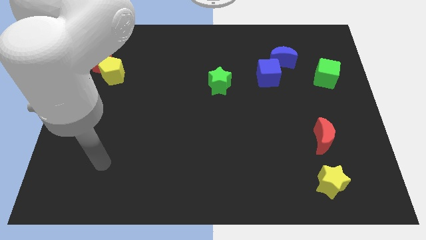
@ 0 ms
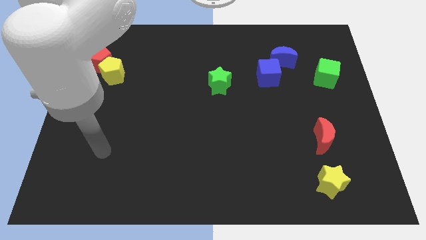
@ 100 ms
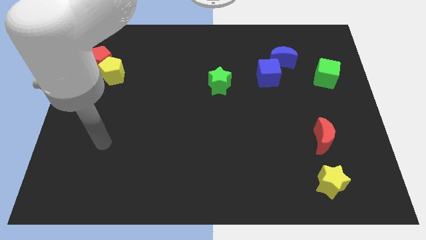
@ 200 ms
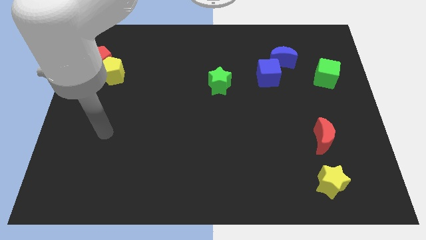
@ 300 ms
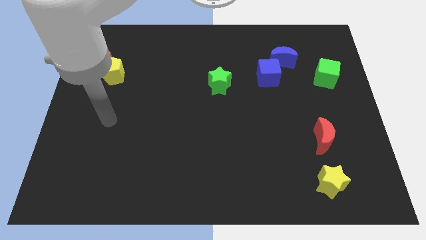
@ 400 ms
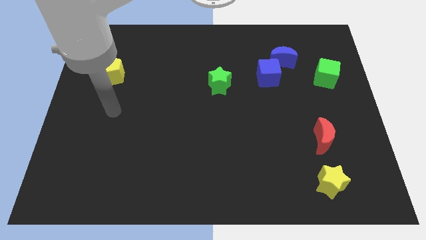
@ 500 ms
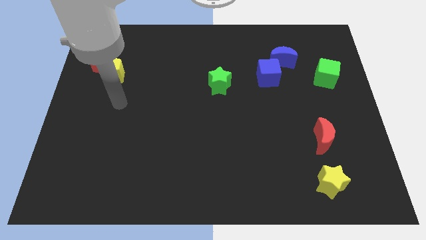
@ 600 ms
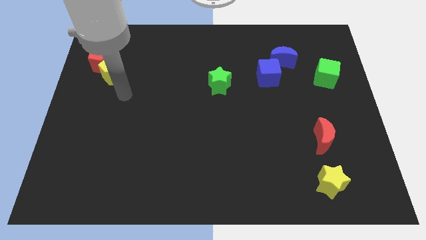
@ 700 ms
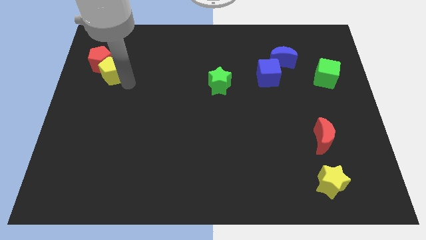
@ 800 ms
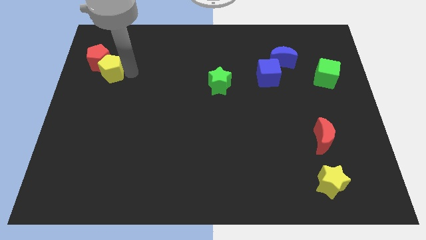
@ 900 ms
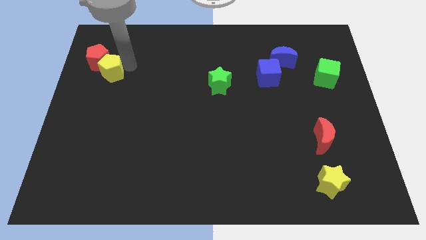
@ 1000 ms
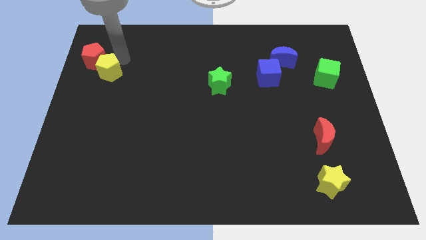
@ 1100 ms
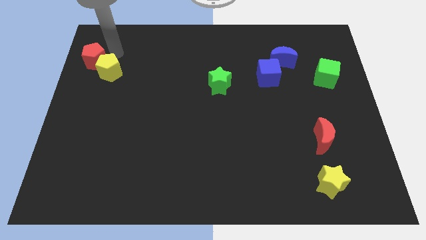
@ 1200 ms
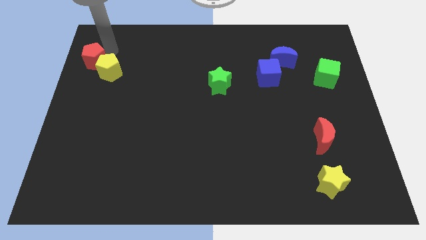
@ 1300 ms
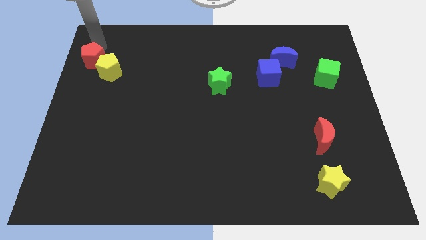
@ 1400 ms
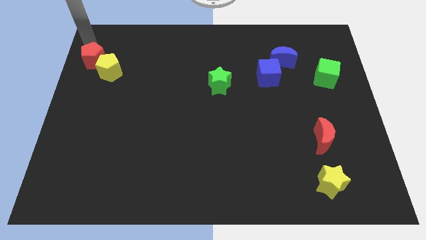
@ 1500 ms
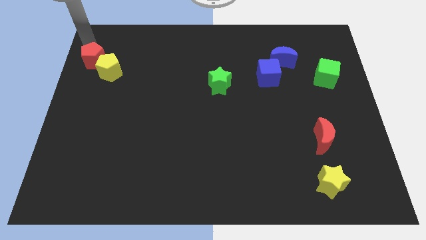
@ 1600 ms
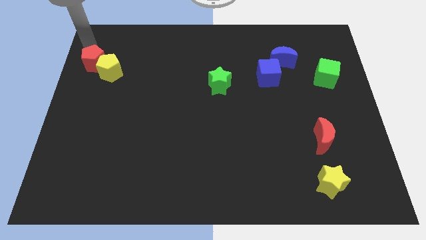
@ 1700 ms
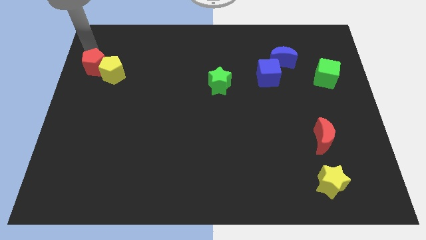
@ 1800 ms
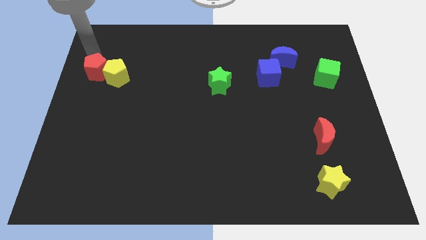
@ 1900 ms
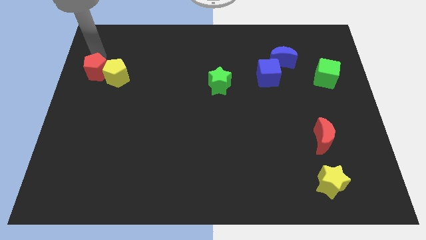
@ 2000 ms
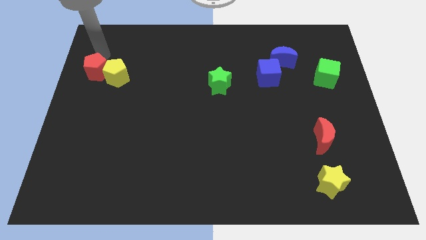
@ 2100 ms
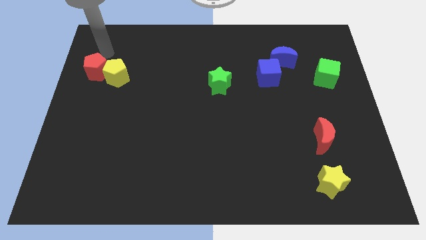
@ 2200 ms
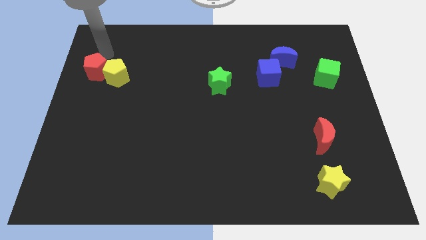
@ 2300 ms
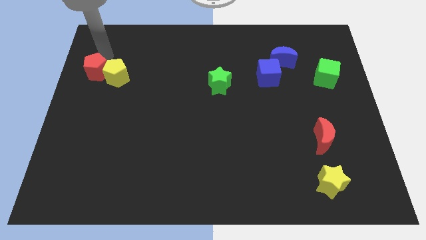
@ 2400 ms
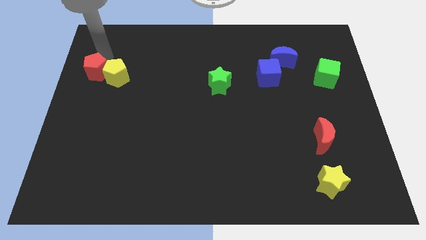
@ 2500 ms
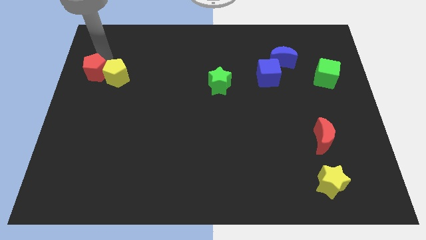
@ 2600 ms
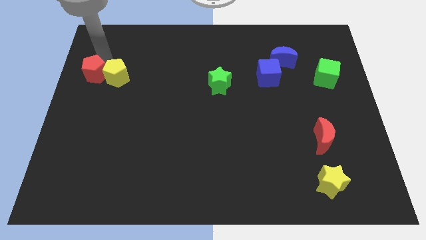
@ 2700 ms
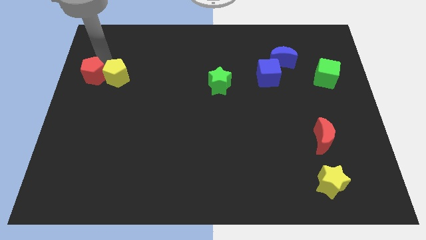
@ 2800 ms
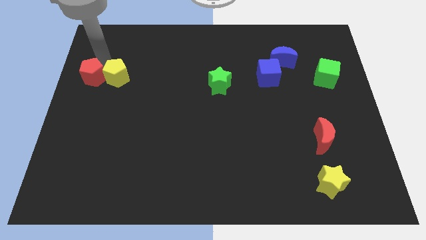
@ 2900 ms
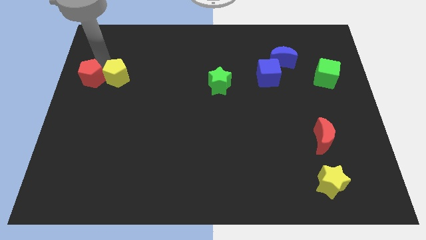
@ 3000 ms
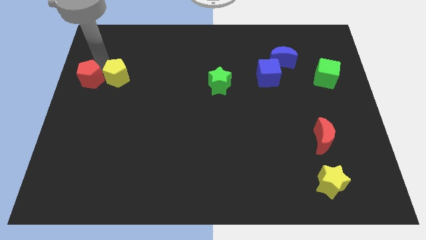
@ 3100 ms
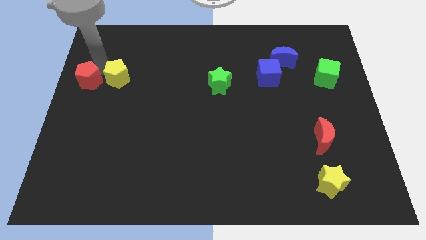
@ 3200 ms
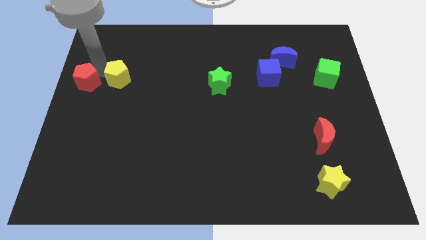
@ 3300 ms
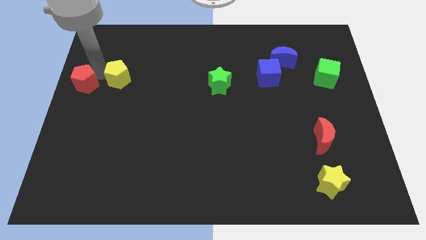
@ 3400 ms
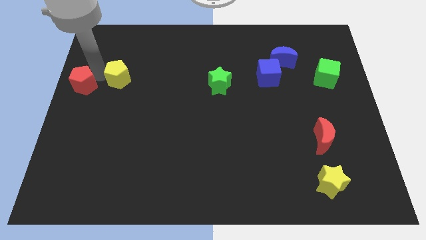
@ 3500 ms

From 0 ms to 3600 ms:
slightly move the red pentagon down

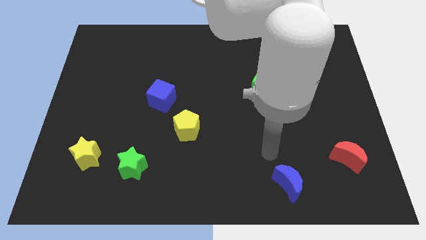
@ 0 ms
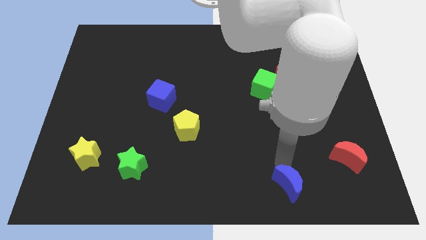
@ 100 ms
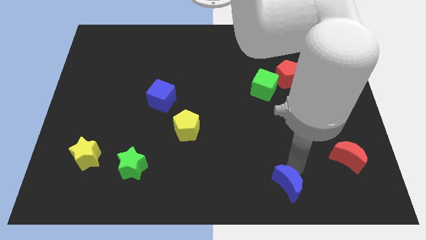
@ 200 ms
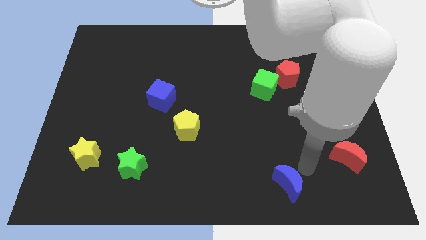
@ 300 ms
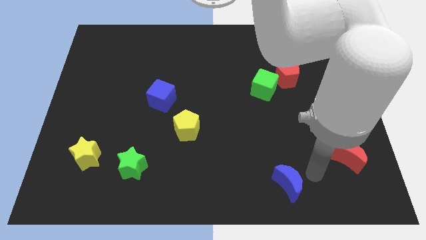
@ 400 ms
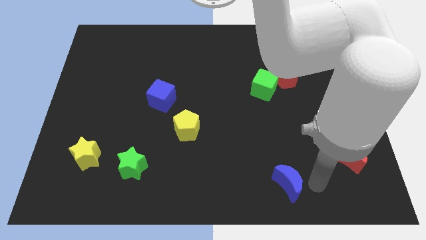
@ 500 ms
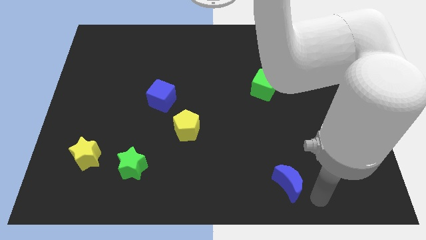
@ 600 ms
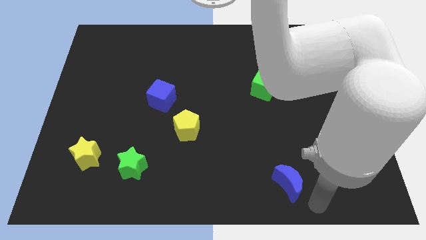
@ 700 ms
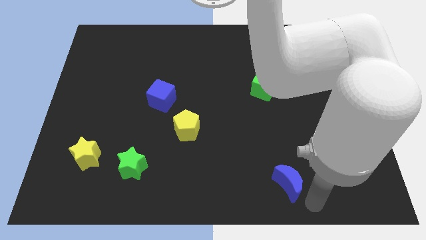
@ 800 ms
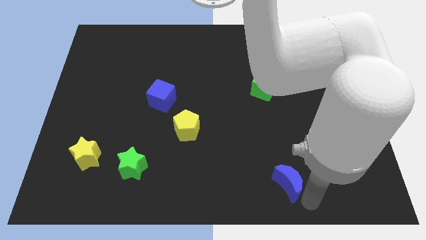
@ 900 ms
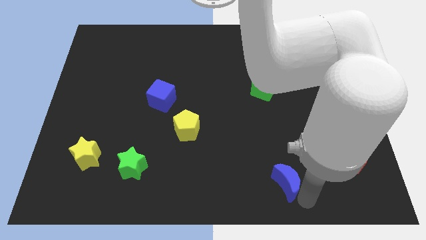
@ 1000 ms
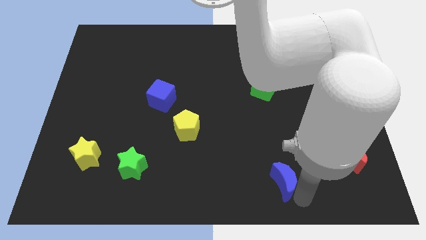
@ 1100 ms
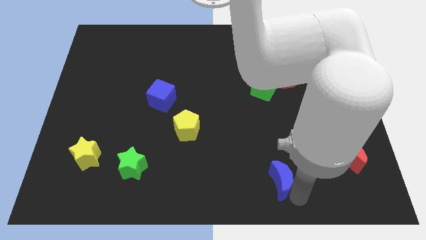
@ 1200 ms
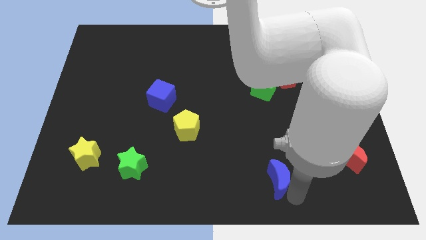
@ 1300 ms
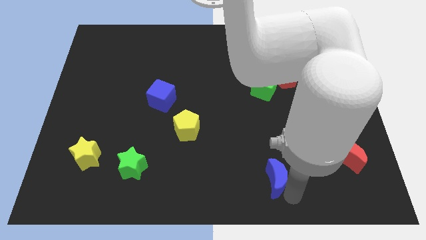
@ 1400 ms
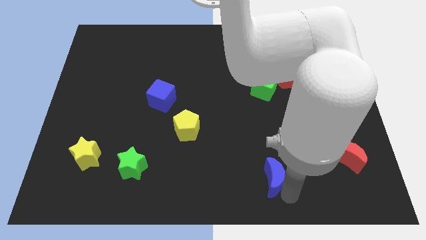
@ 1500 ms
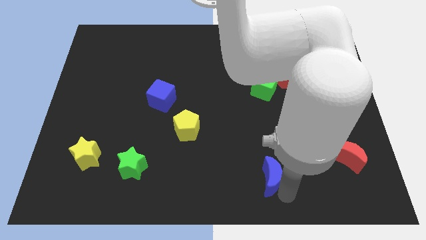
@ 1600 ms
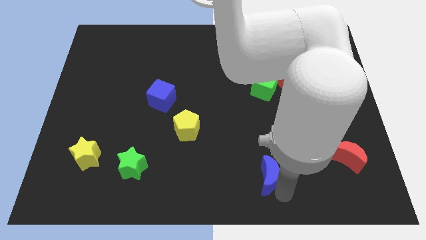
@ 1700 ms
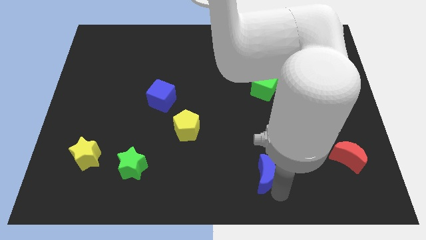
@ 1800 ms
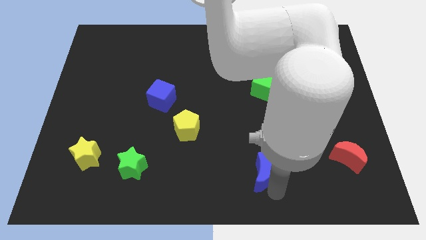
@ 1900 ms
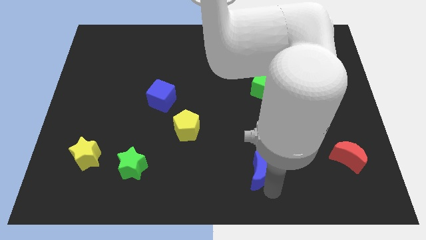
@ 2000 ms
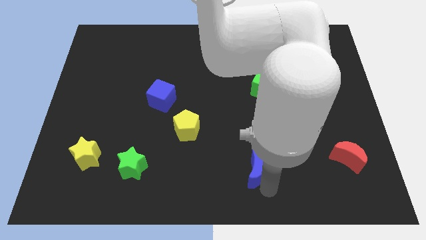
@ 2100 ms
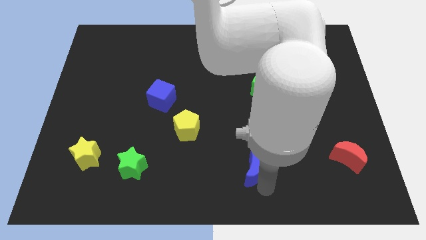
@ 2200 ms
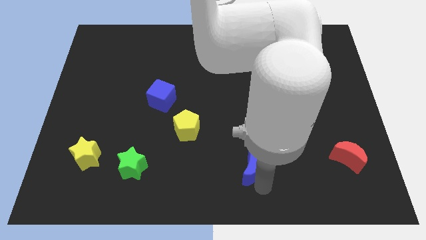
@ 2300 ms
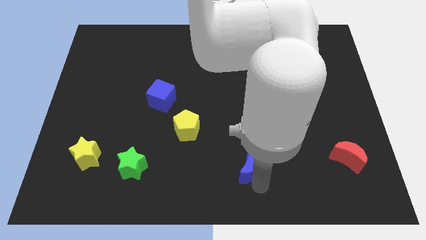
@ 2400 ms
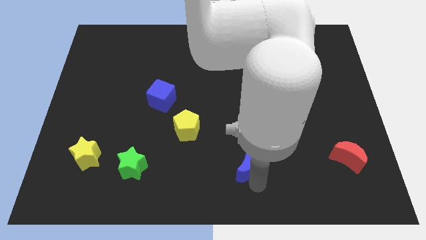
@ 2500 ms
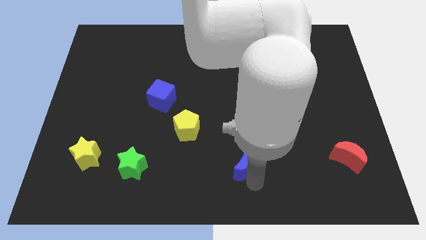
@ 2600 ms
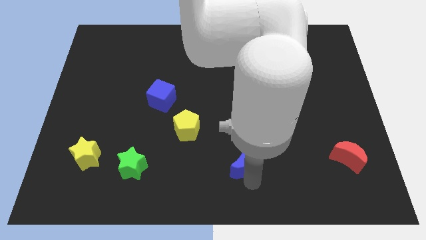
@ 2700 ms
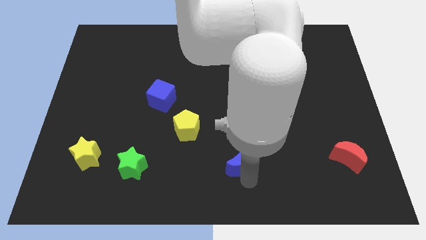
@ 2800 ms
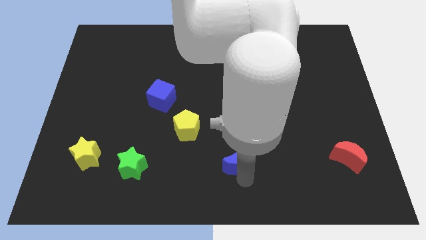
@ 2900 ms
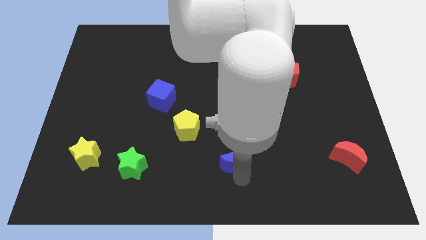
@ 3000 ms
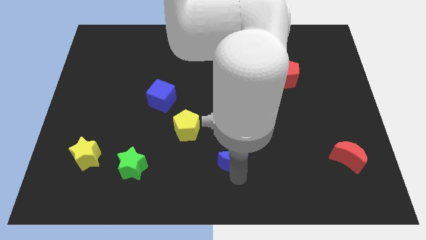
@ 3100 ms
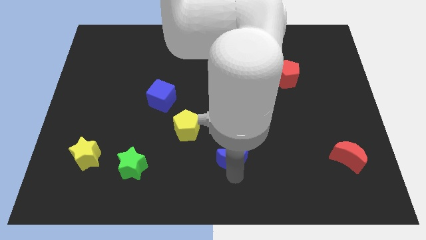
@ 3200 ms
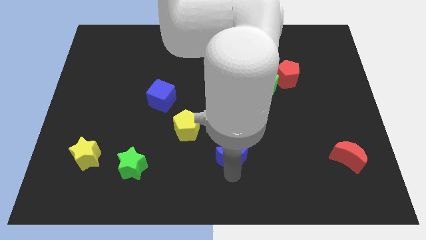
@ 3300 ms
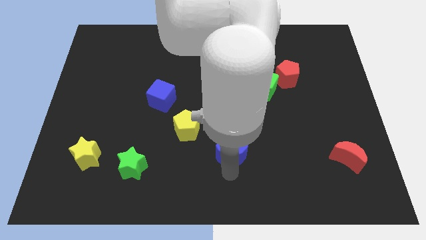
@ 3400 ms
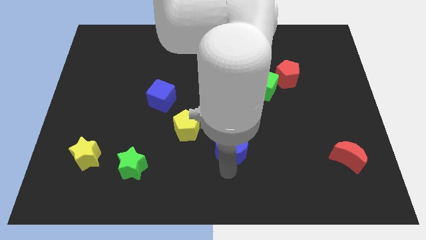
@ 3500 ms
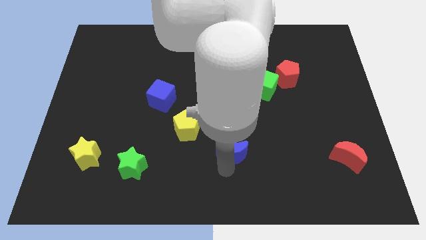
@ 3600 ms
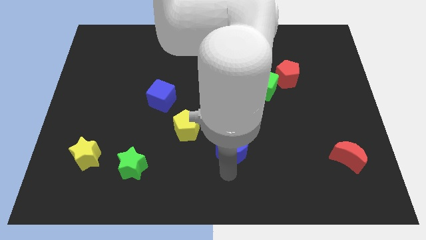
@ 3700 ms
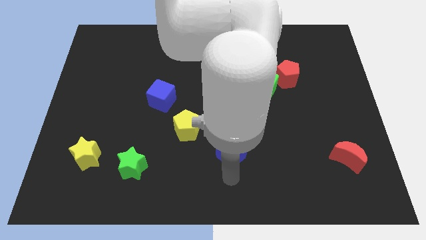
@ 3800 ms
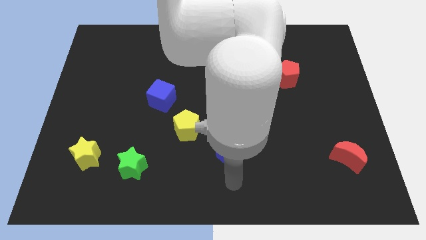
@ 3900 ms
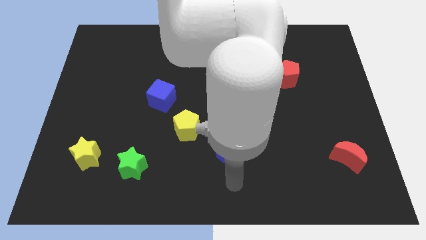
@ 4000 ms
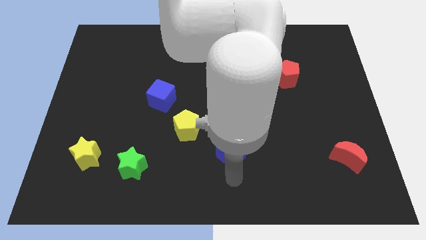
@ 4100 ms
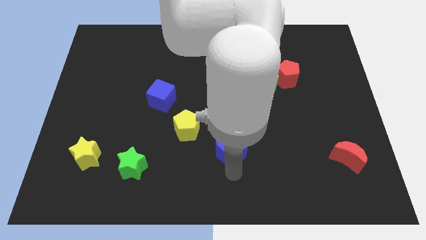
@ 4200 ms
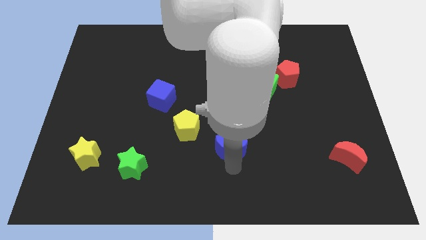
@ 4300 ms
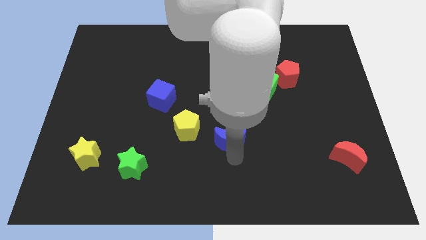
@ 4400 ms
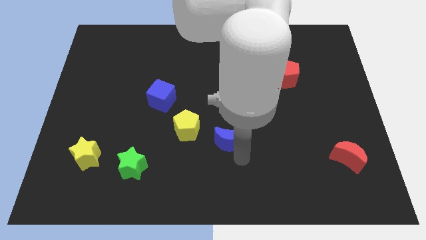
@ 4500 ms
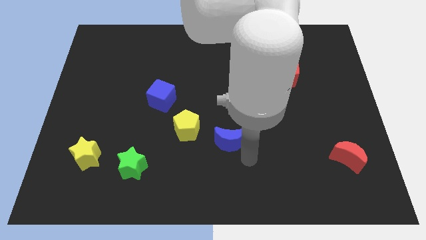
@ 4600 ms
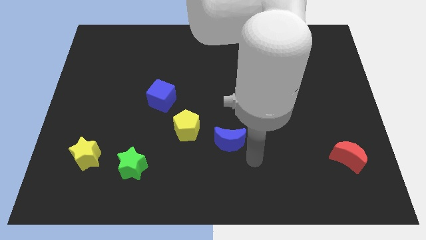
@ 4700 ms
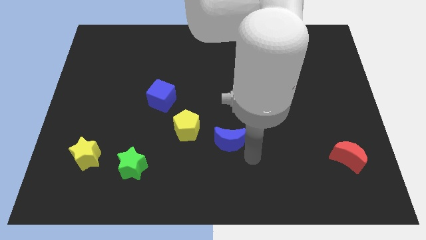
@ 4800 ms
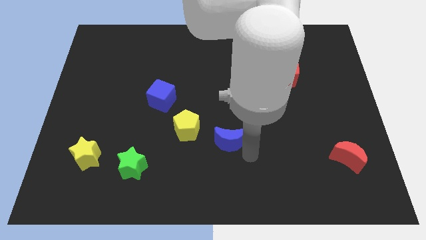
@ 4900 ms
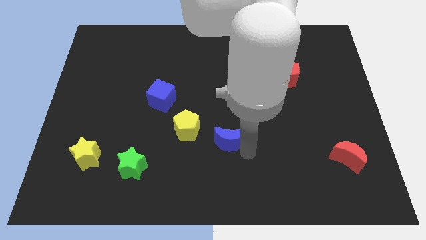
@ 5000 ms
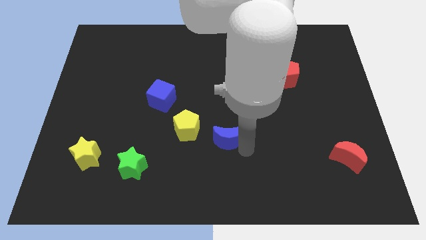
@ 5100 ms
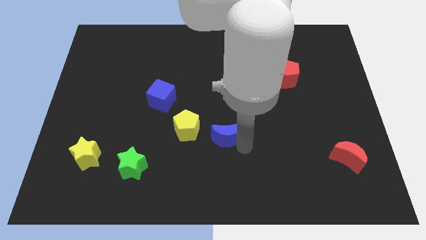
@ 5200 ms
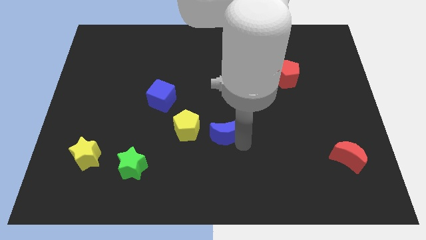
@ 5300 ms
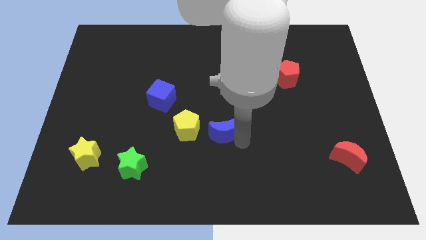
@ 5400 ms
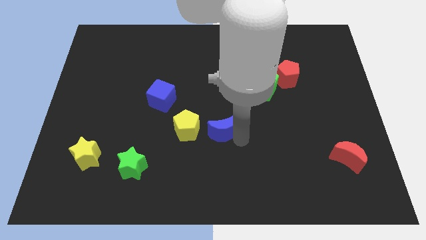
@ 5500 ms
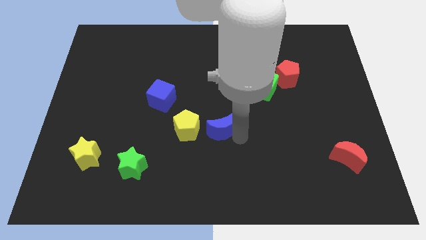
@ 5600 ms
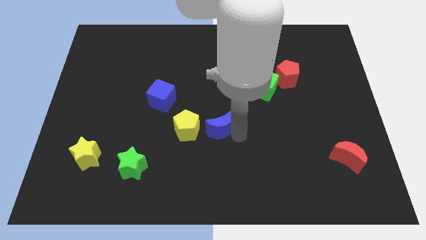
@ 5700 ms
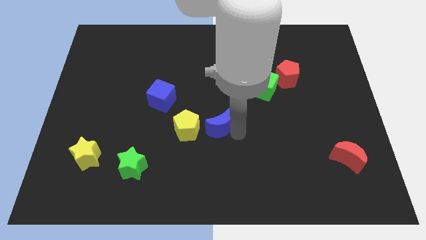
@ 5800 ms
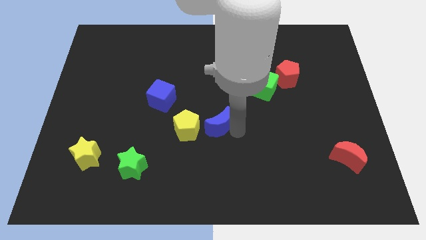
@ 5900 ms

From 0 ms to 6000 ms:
slide the blue moon up and then to the left
